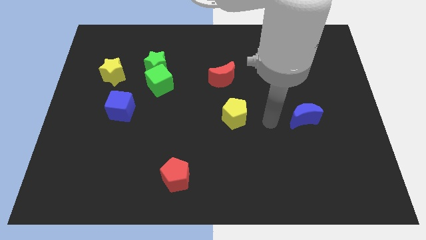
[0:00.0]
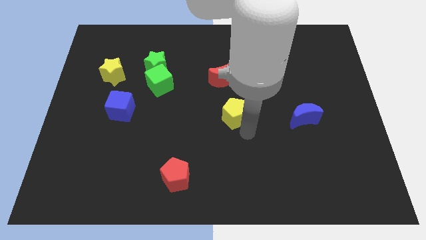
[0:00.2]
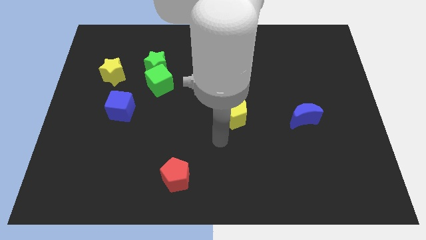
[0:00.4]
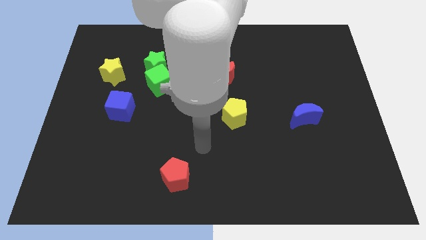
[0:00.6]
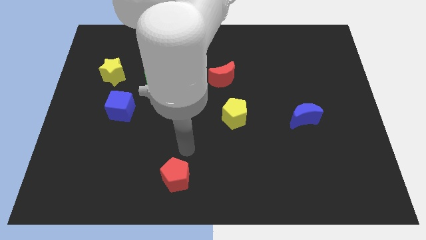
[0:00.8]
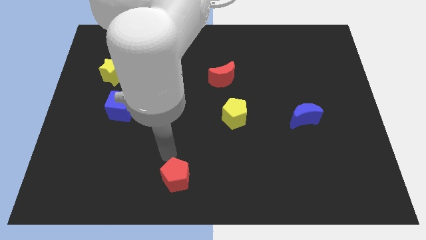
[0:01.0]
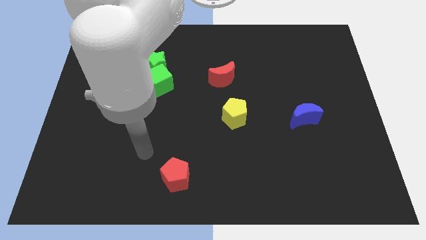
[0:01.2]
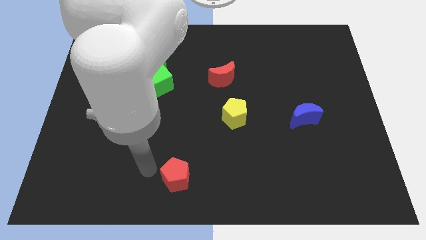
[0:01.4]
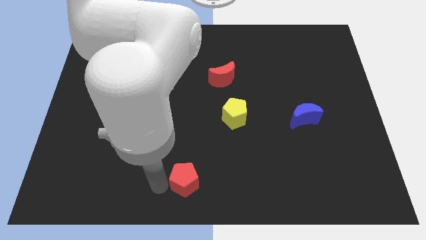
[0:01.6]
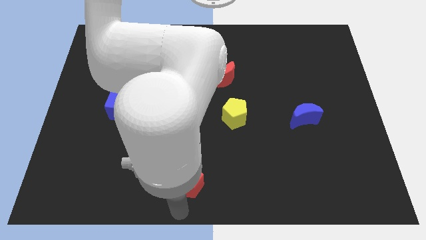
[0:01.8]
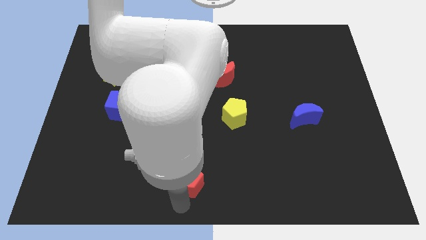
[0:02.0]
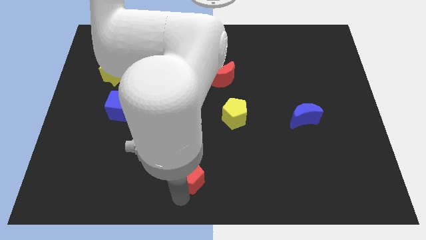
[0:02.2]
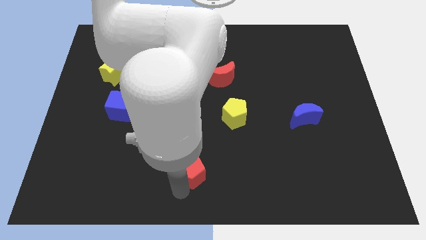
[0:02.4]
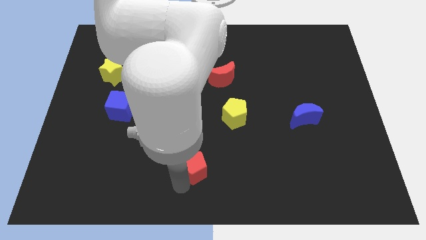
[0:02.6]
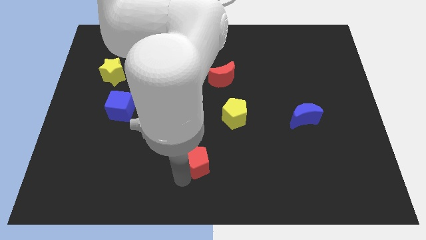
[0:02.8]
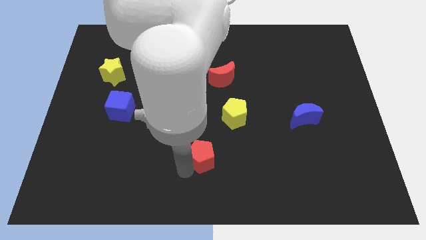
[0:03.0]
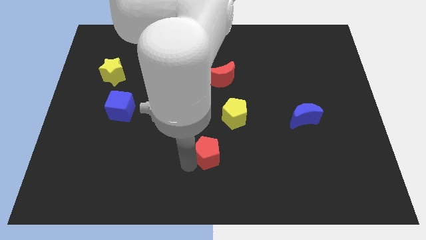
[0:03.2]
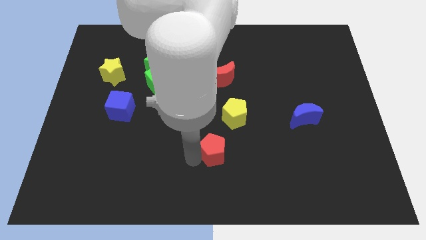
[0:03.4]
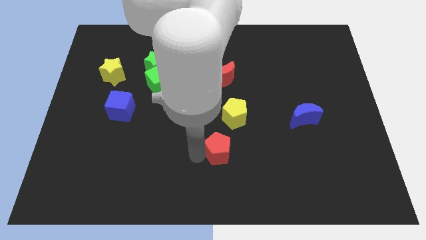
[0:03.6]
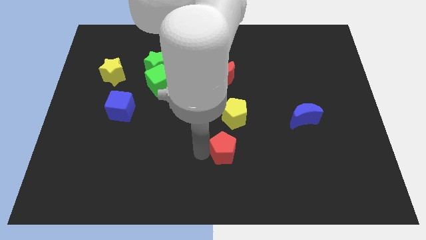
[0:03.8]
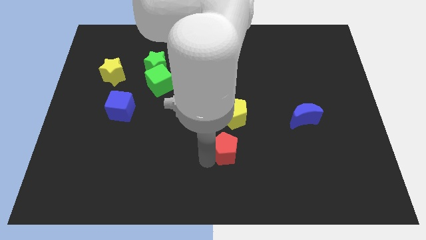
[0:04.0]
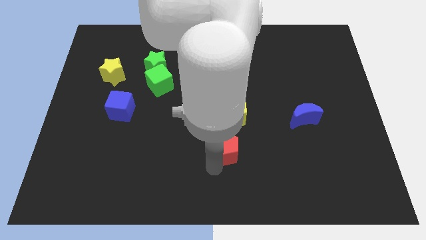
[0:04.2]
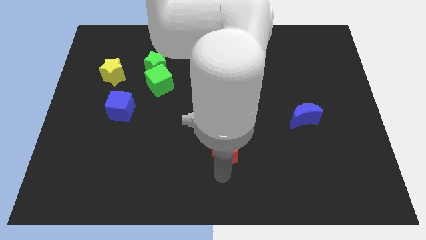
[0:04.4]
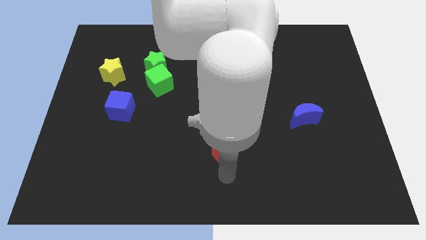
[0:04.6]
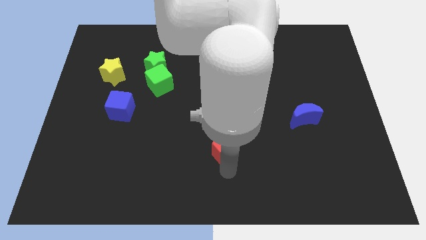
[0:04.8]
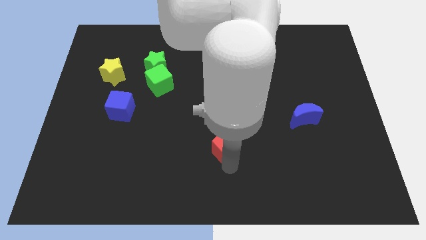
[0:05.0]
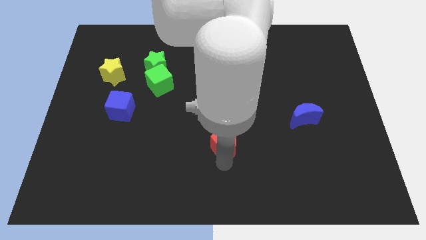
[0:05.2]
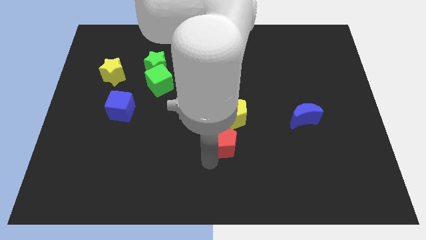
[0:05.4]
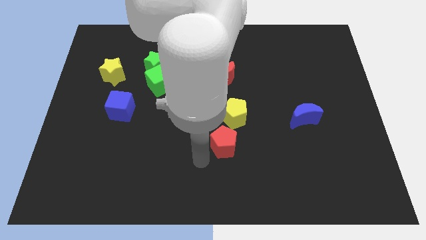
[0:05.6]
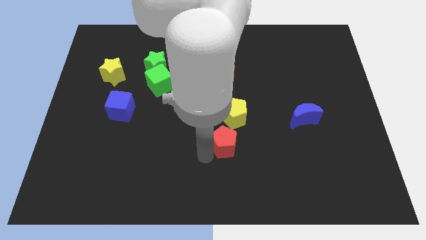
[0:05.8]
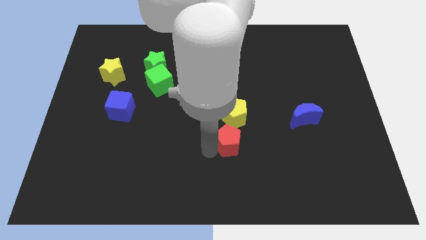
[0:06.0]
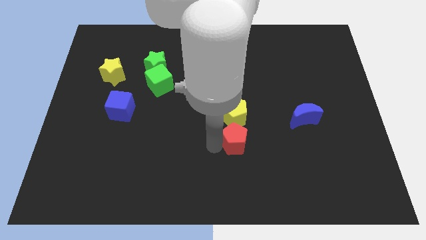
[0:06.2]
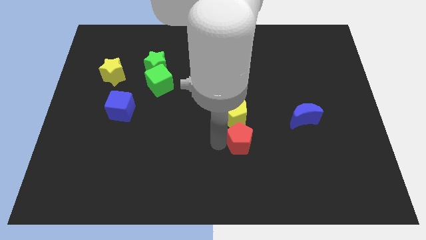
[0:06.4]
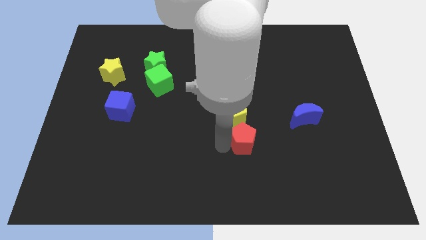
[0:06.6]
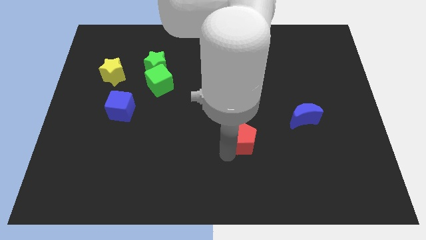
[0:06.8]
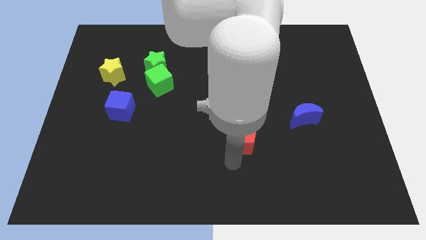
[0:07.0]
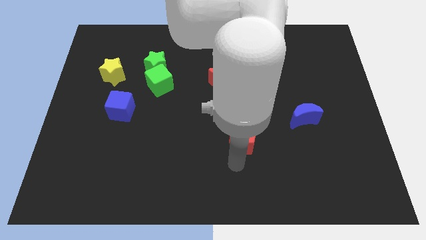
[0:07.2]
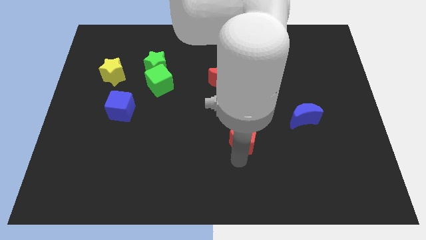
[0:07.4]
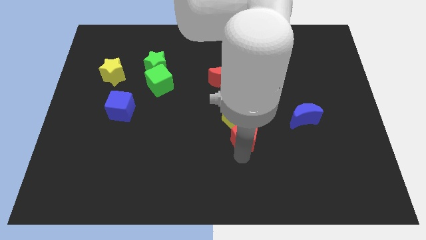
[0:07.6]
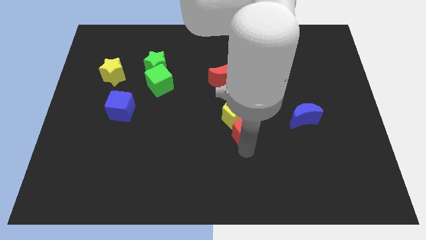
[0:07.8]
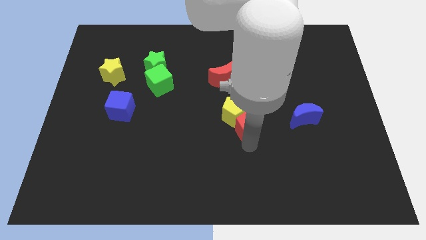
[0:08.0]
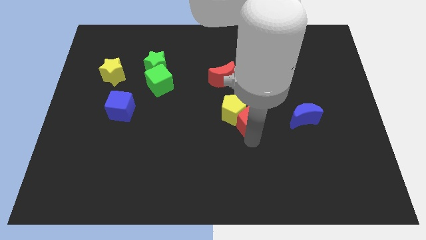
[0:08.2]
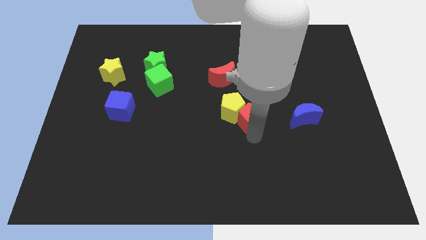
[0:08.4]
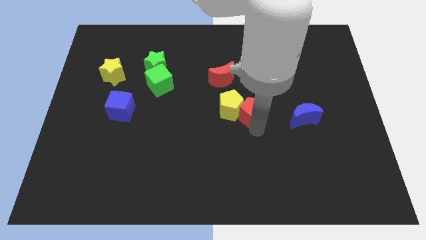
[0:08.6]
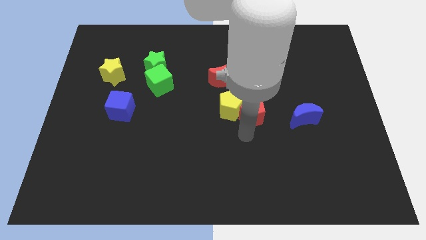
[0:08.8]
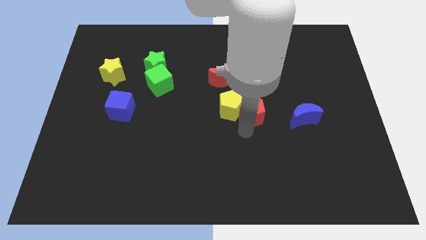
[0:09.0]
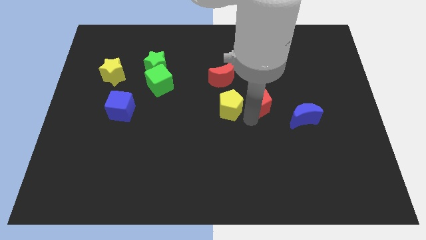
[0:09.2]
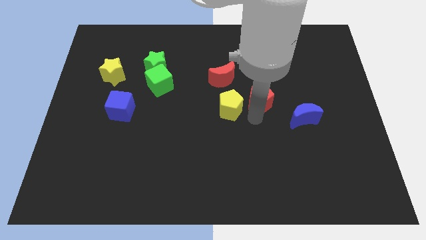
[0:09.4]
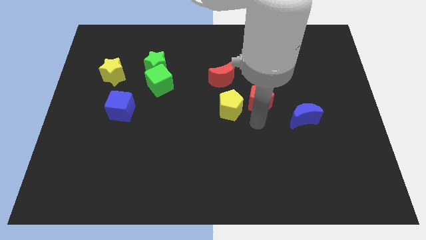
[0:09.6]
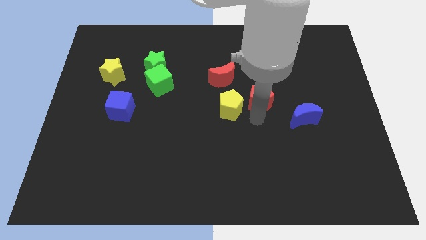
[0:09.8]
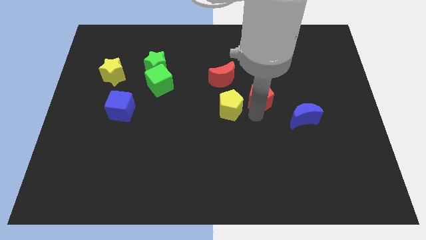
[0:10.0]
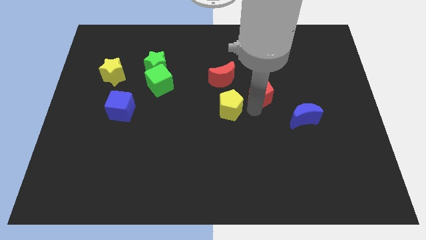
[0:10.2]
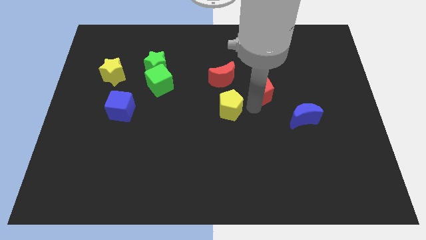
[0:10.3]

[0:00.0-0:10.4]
move the red pentagon right of the red moon

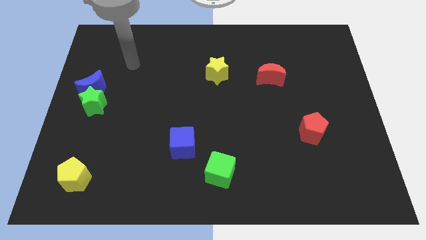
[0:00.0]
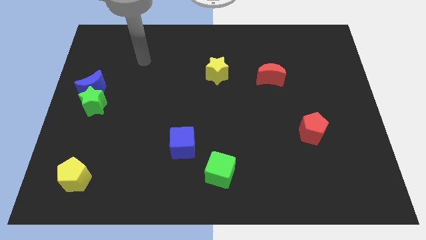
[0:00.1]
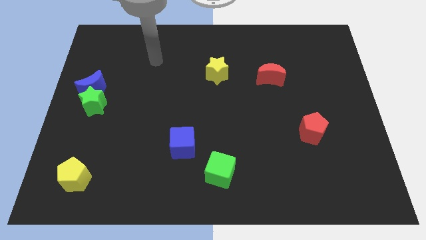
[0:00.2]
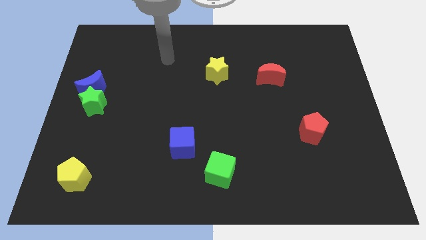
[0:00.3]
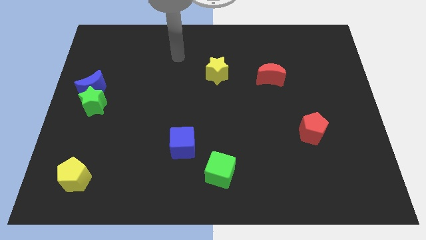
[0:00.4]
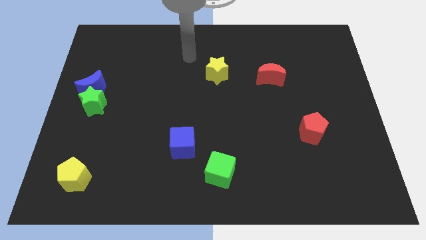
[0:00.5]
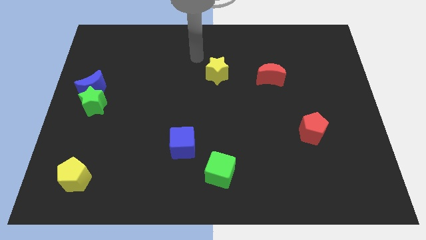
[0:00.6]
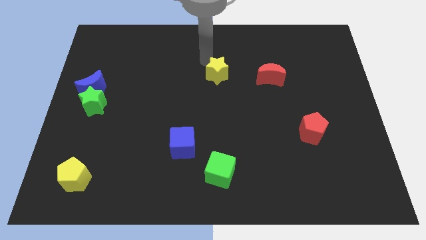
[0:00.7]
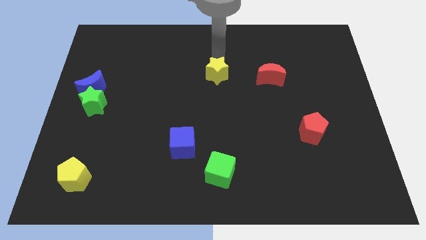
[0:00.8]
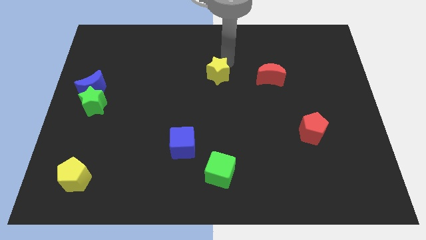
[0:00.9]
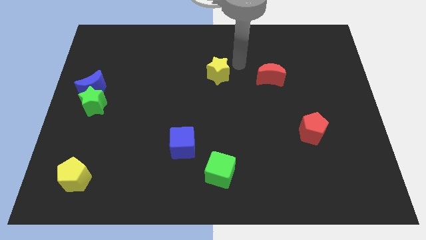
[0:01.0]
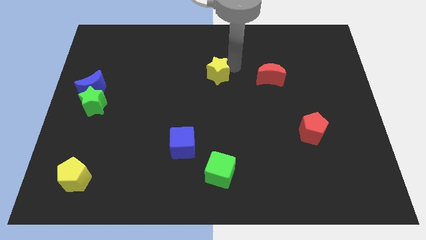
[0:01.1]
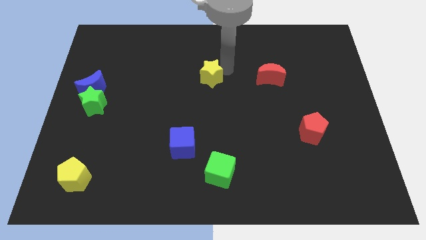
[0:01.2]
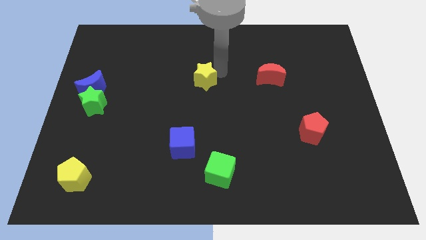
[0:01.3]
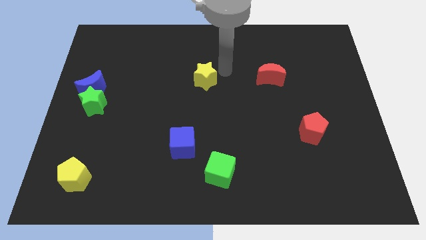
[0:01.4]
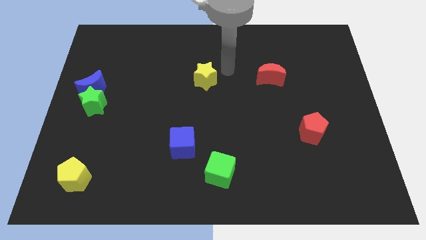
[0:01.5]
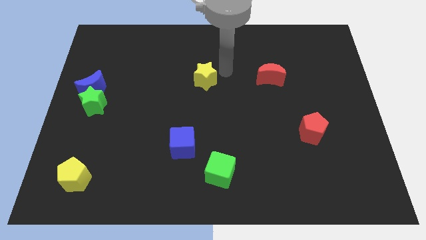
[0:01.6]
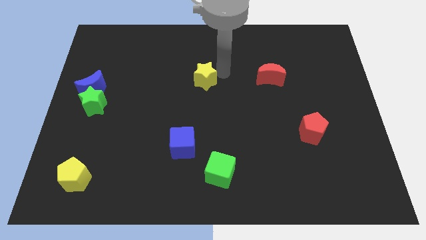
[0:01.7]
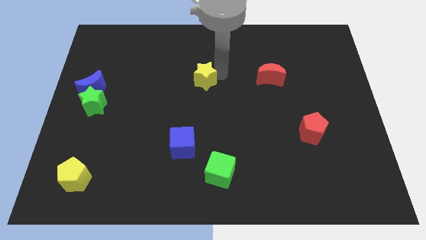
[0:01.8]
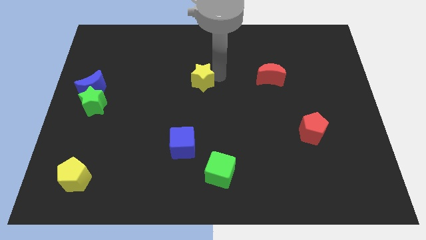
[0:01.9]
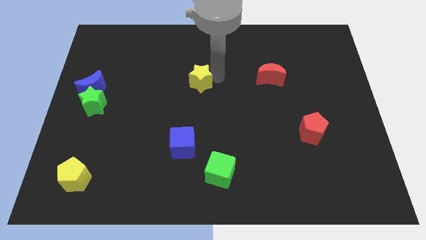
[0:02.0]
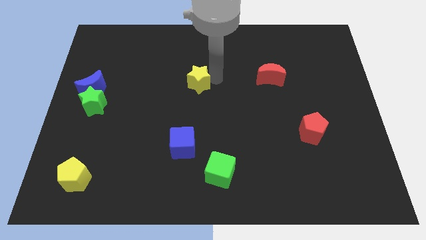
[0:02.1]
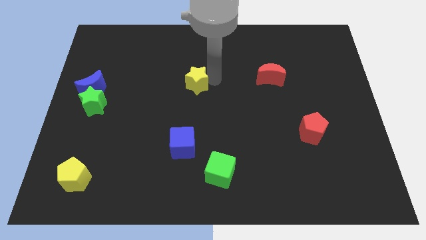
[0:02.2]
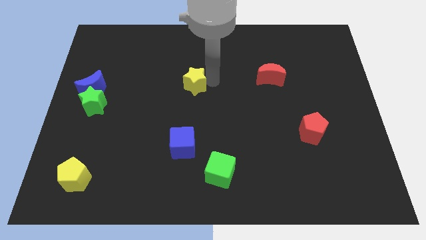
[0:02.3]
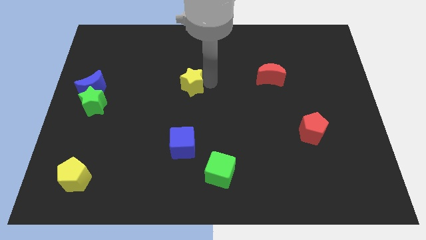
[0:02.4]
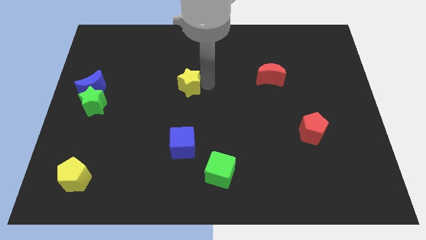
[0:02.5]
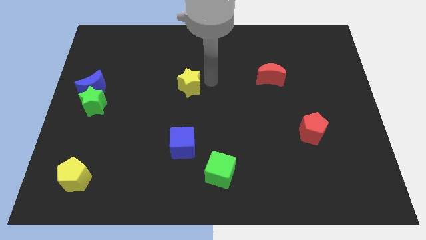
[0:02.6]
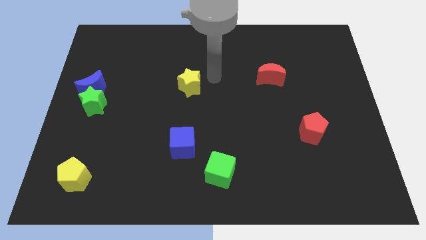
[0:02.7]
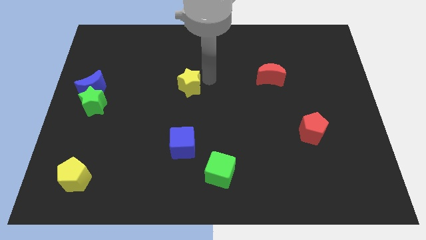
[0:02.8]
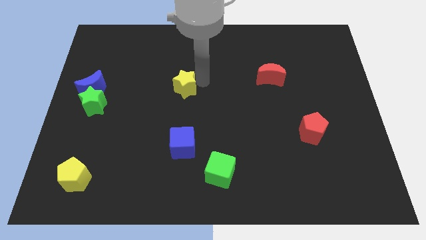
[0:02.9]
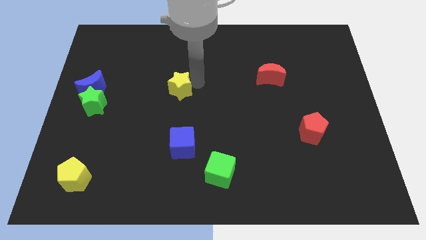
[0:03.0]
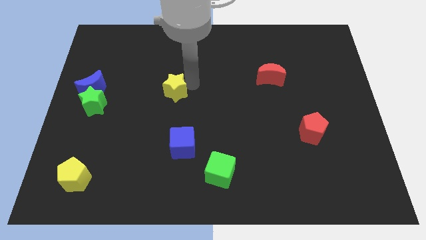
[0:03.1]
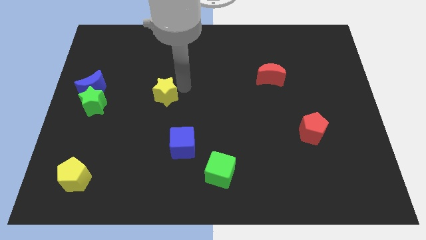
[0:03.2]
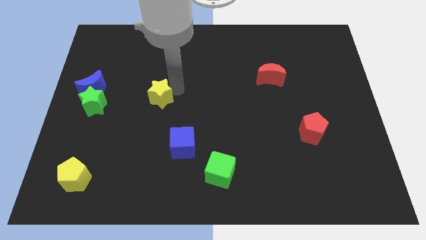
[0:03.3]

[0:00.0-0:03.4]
put the yellow star right of the green star
